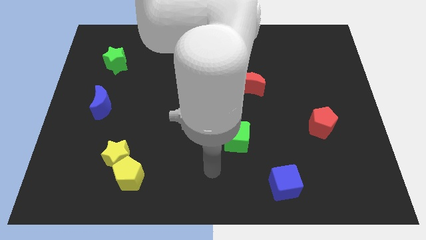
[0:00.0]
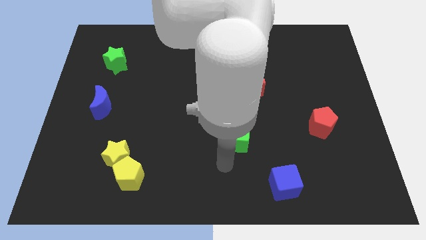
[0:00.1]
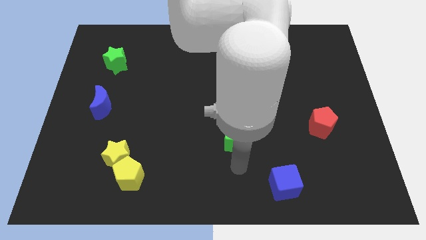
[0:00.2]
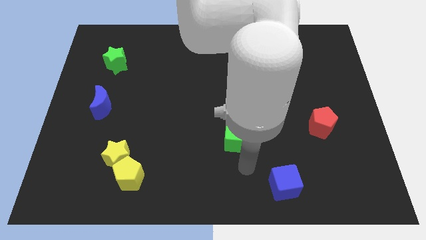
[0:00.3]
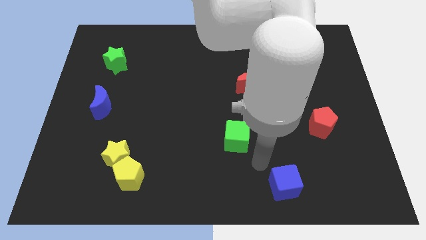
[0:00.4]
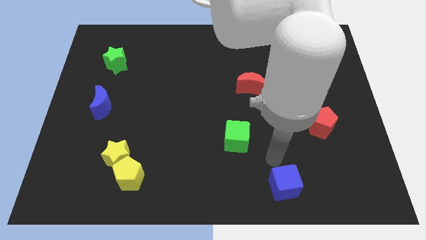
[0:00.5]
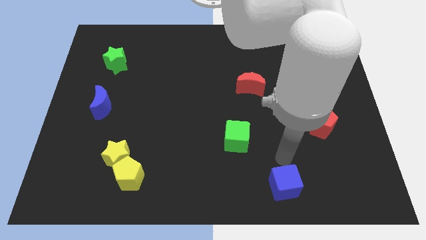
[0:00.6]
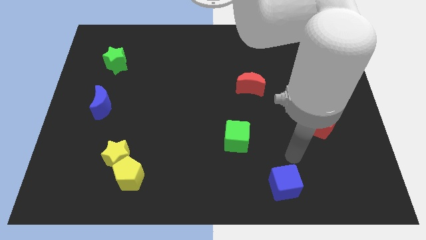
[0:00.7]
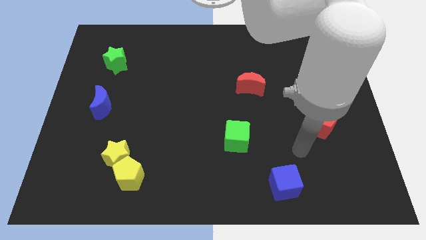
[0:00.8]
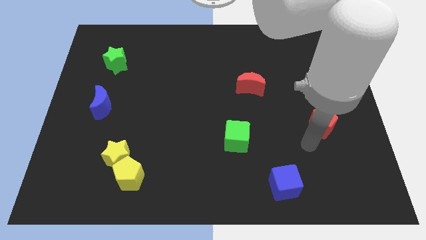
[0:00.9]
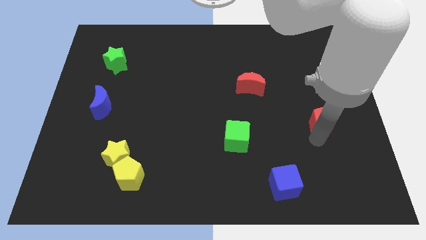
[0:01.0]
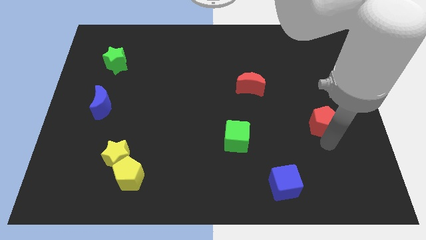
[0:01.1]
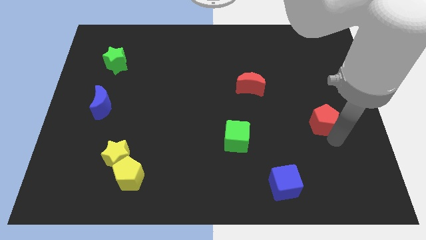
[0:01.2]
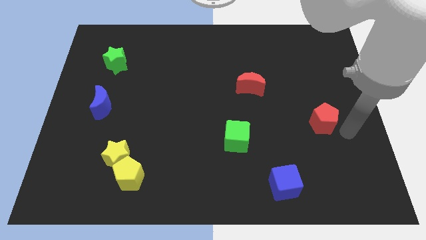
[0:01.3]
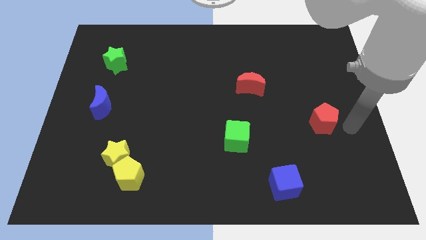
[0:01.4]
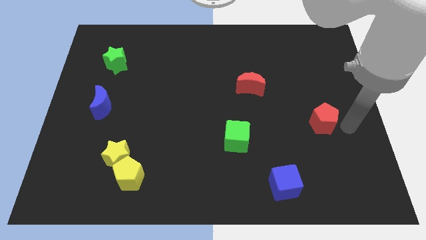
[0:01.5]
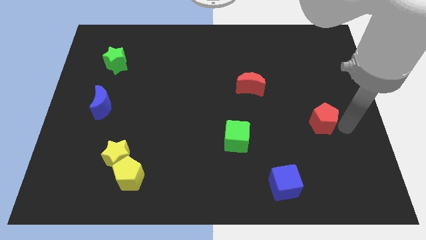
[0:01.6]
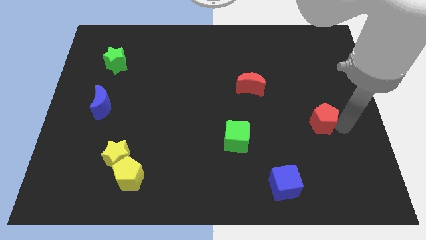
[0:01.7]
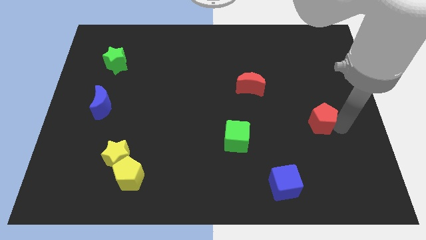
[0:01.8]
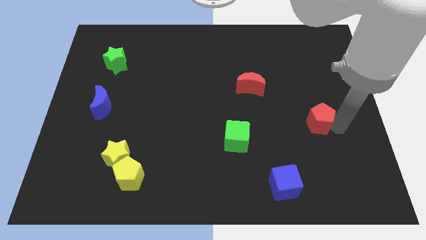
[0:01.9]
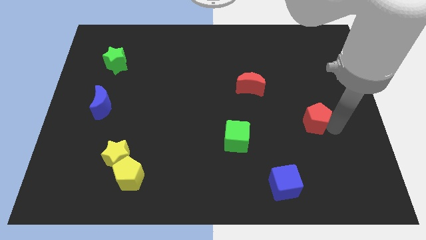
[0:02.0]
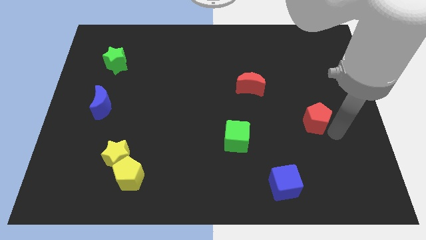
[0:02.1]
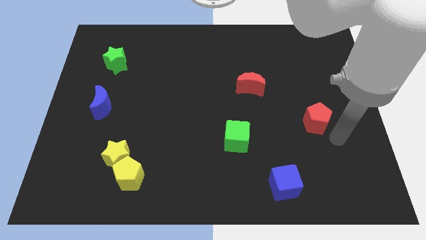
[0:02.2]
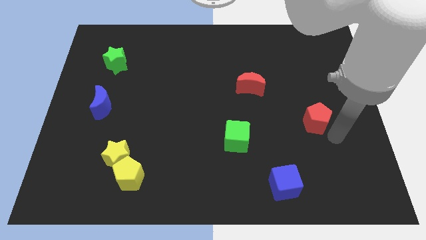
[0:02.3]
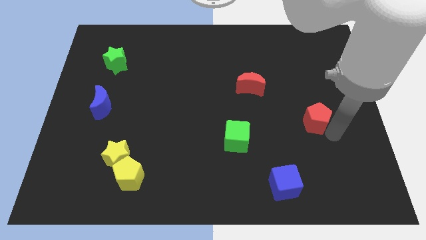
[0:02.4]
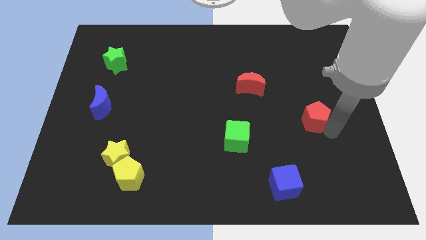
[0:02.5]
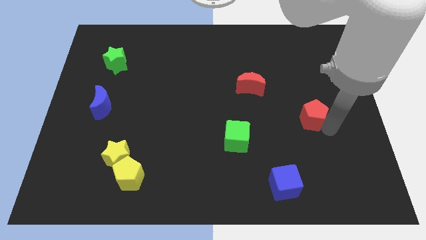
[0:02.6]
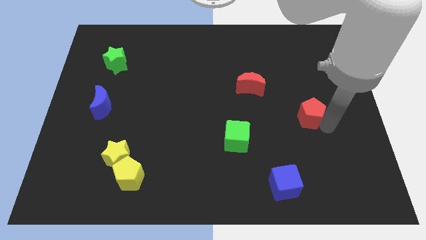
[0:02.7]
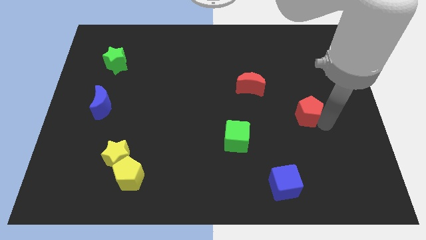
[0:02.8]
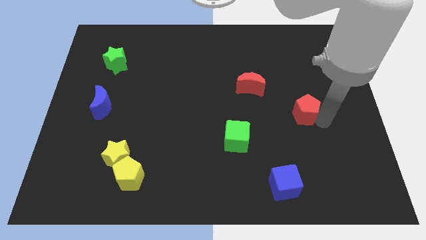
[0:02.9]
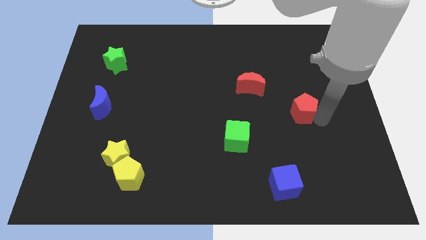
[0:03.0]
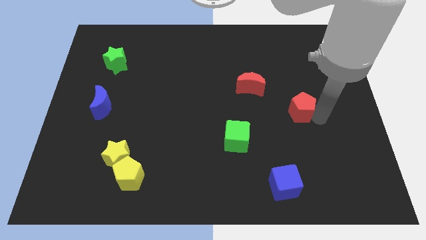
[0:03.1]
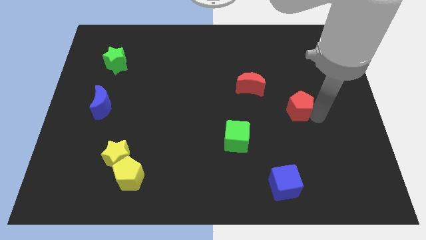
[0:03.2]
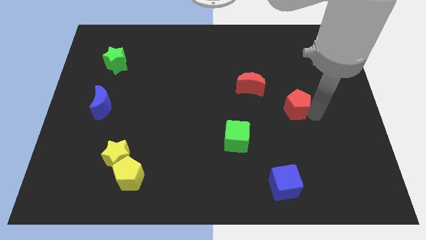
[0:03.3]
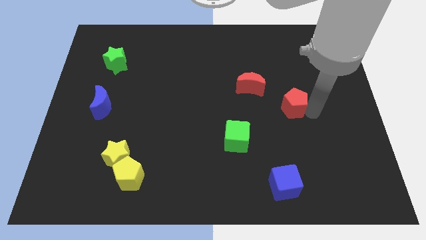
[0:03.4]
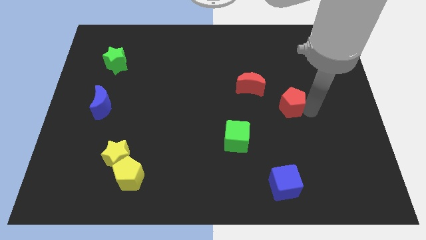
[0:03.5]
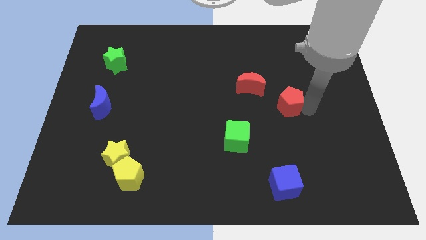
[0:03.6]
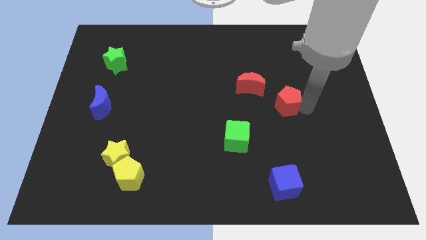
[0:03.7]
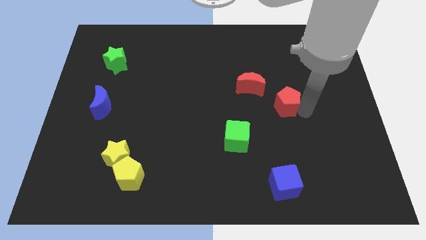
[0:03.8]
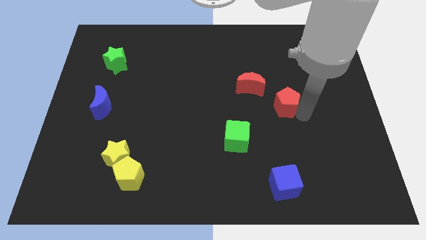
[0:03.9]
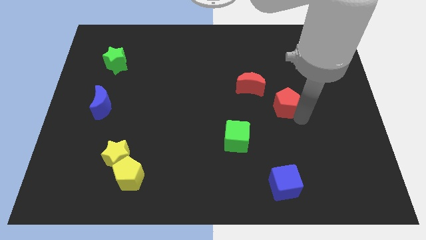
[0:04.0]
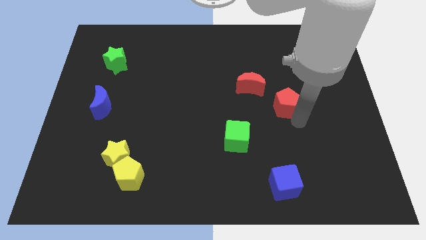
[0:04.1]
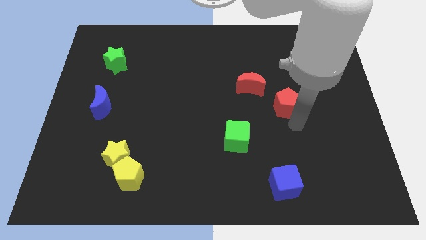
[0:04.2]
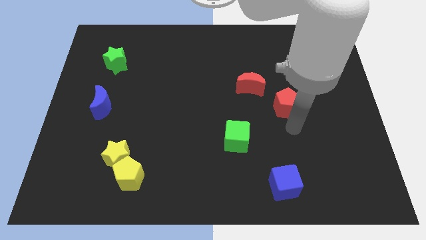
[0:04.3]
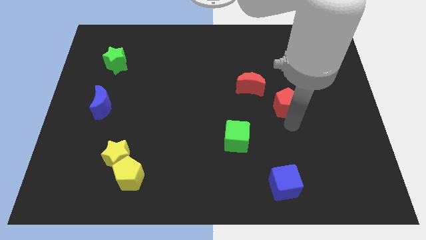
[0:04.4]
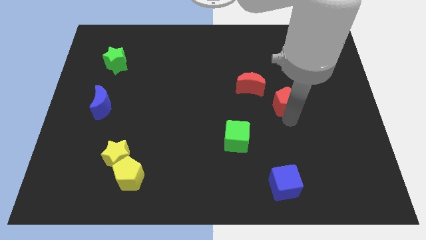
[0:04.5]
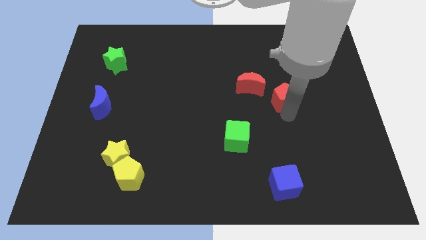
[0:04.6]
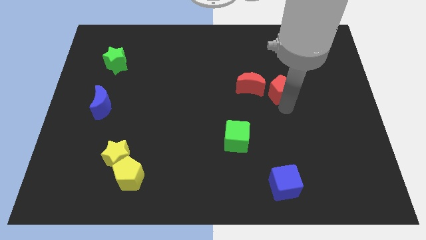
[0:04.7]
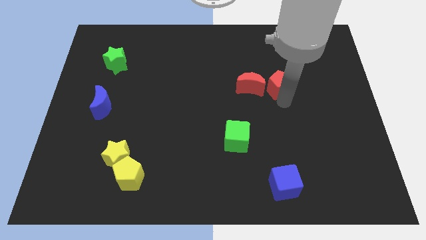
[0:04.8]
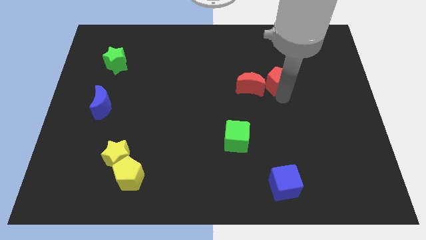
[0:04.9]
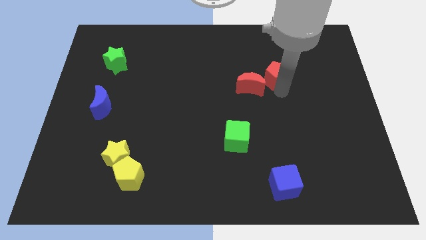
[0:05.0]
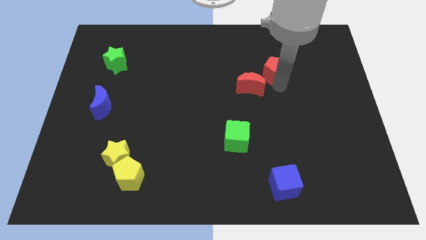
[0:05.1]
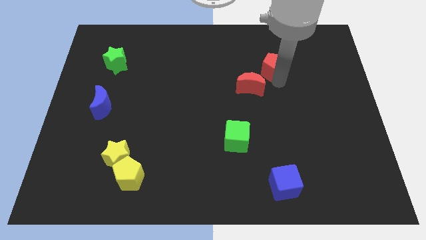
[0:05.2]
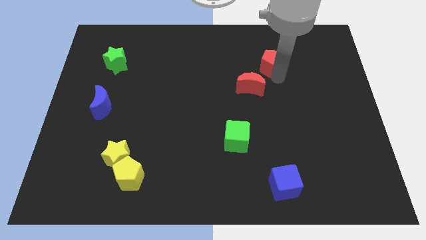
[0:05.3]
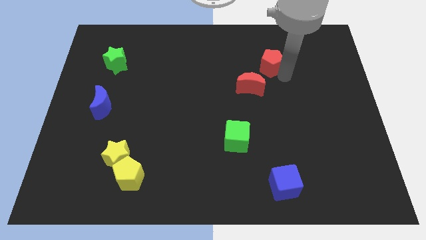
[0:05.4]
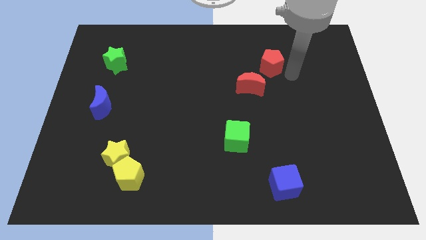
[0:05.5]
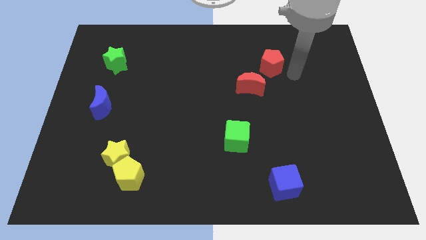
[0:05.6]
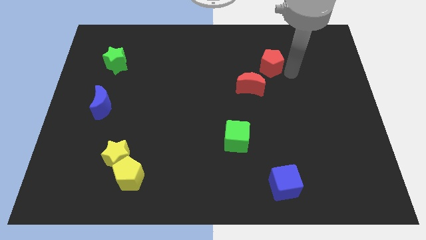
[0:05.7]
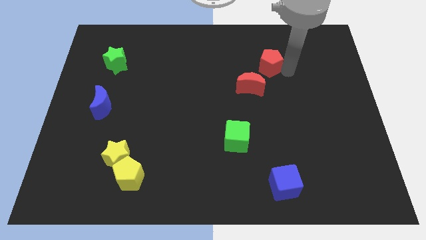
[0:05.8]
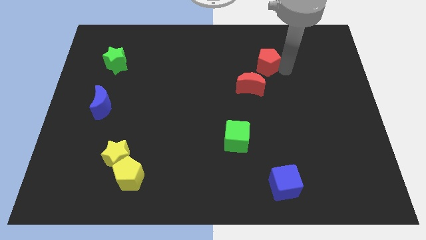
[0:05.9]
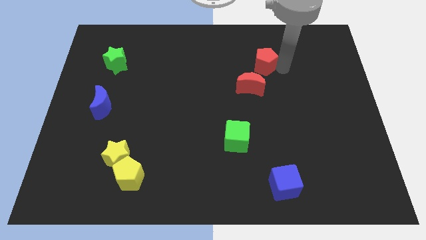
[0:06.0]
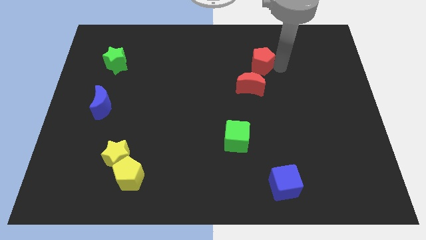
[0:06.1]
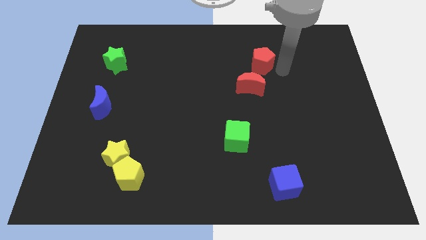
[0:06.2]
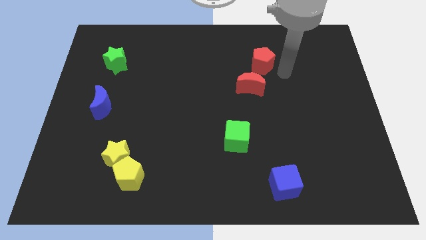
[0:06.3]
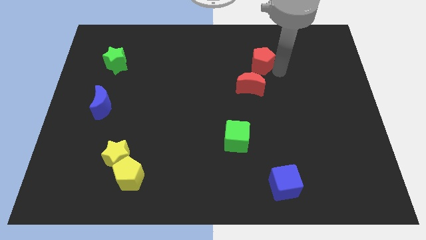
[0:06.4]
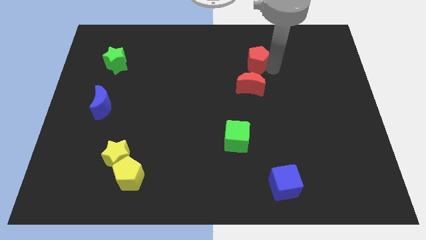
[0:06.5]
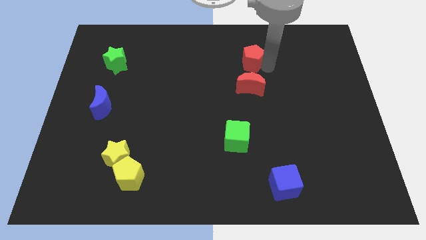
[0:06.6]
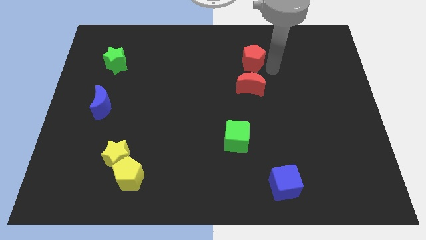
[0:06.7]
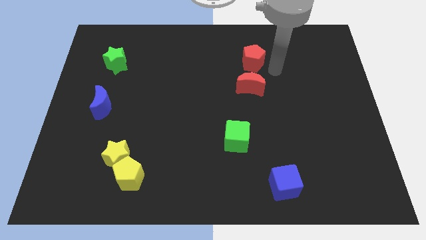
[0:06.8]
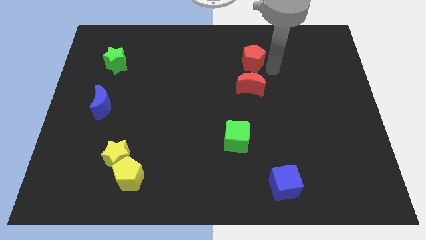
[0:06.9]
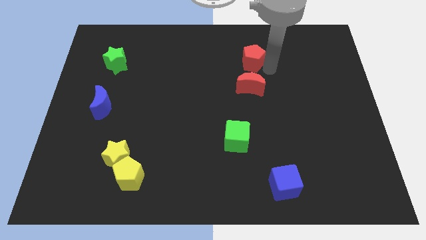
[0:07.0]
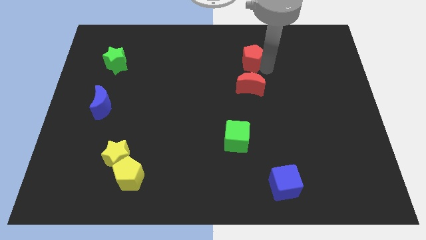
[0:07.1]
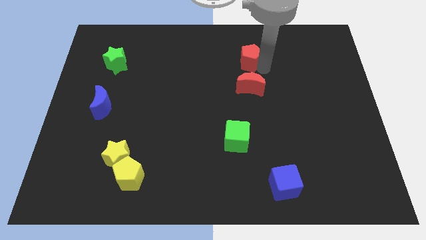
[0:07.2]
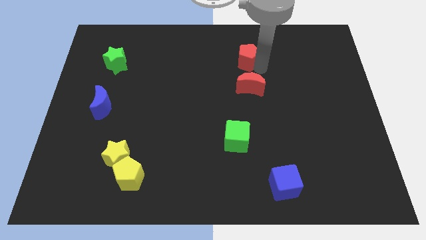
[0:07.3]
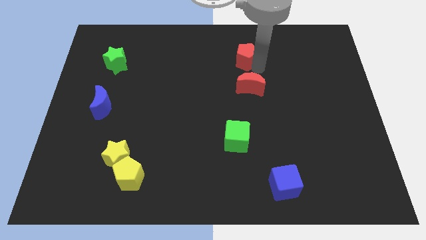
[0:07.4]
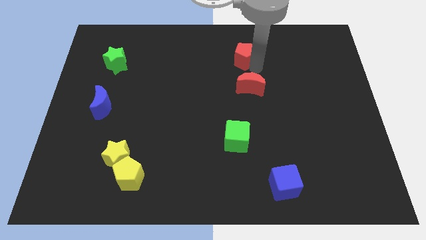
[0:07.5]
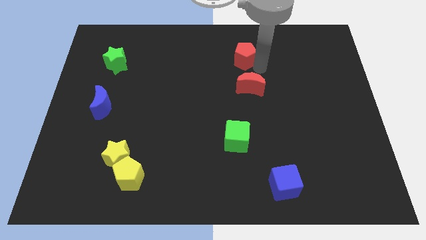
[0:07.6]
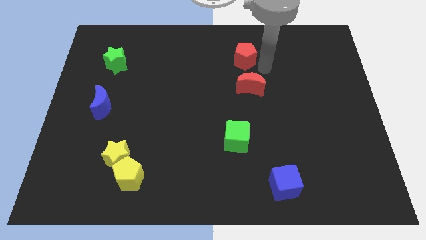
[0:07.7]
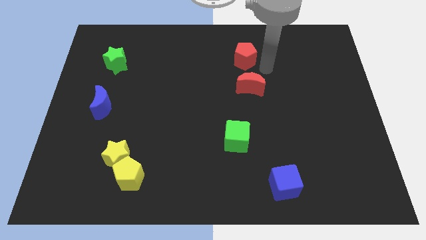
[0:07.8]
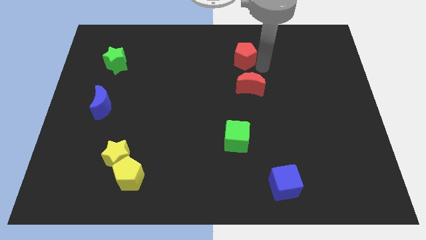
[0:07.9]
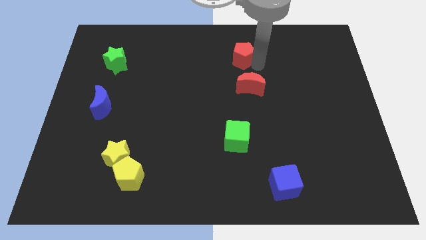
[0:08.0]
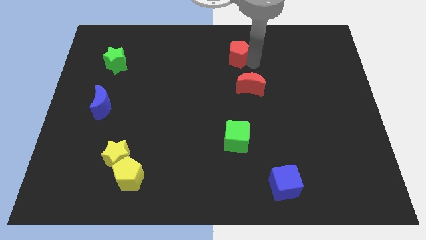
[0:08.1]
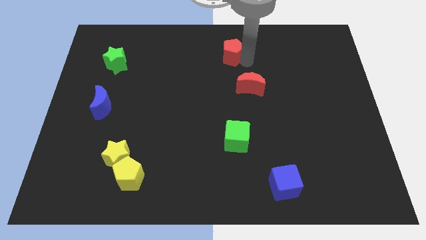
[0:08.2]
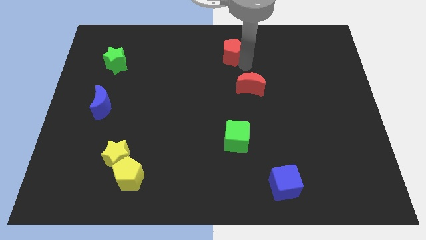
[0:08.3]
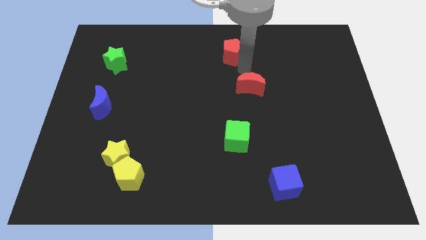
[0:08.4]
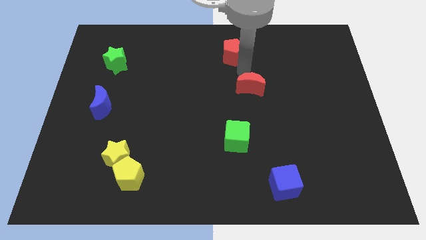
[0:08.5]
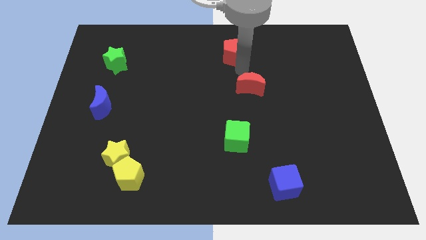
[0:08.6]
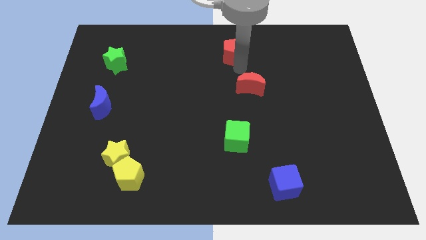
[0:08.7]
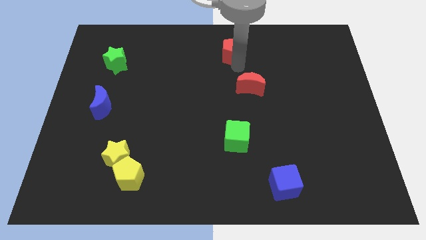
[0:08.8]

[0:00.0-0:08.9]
slide the red pentagon to the top
